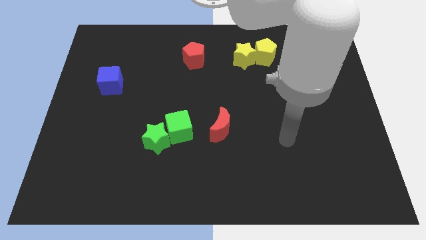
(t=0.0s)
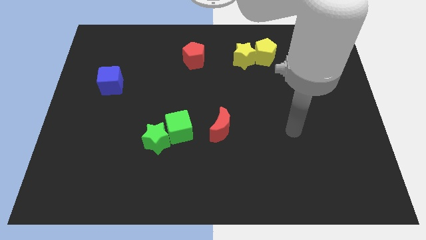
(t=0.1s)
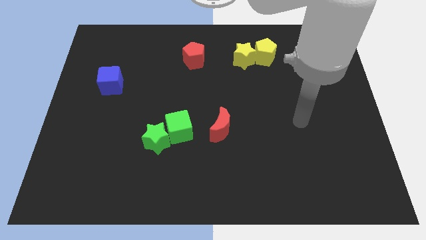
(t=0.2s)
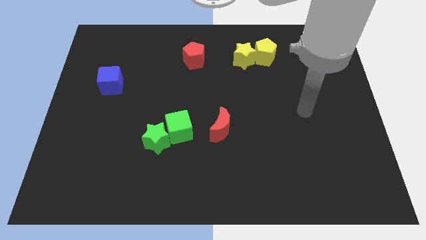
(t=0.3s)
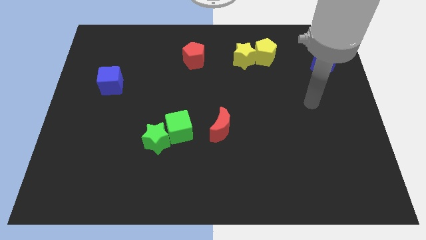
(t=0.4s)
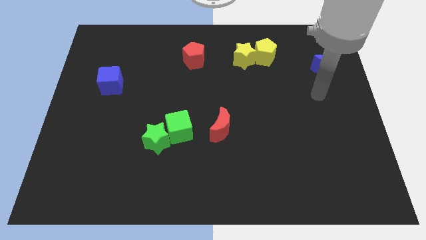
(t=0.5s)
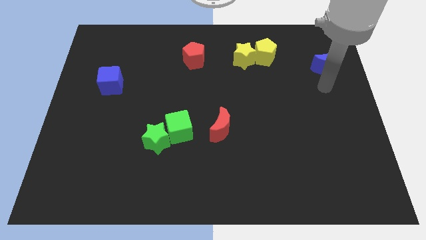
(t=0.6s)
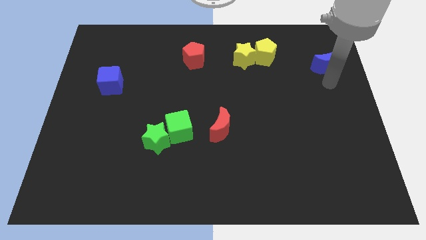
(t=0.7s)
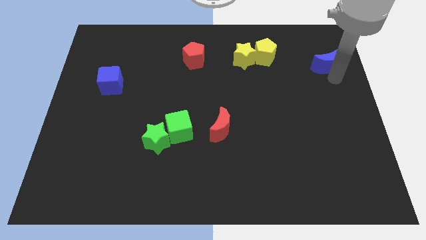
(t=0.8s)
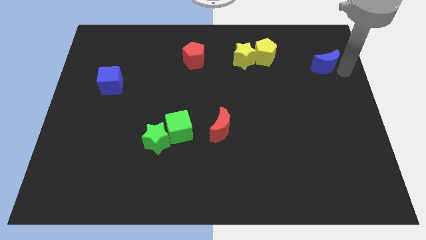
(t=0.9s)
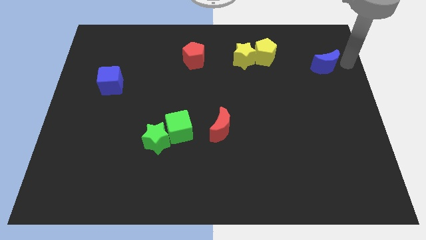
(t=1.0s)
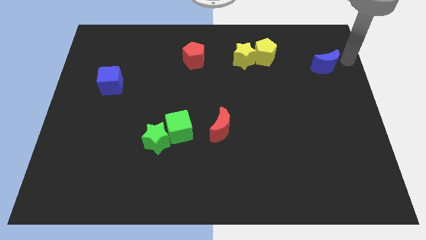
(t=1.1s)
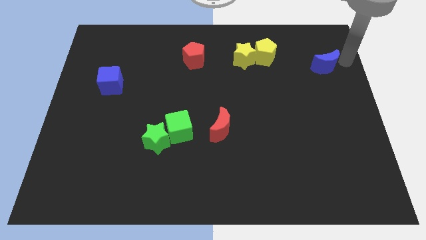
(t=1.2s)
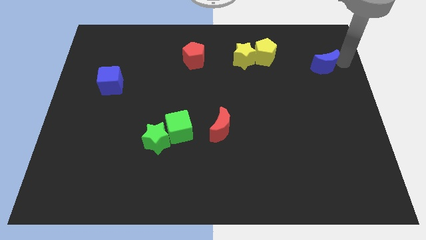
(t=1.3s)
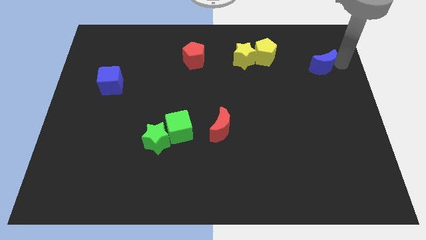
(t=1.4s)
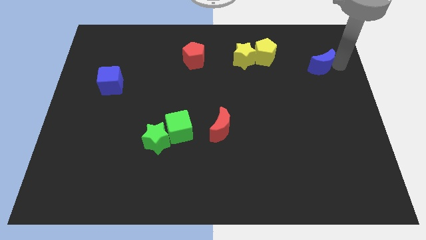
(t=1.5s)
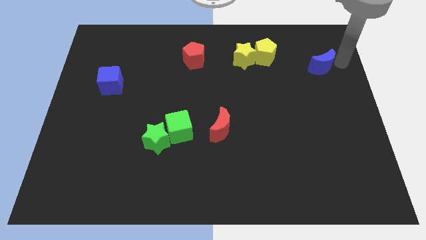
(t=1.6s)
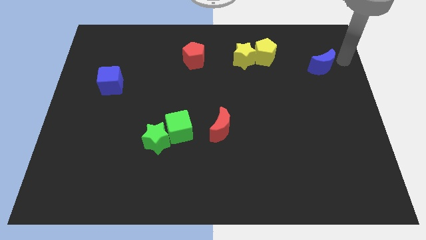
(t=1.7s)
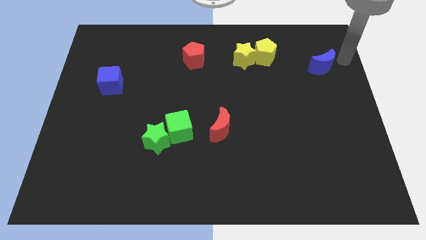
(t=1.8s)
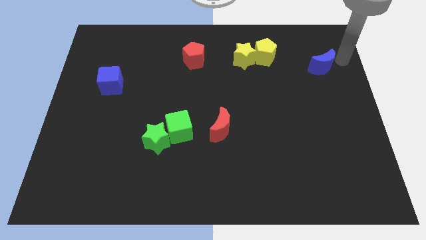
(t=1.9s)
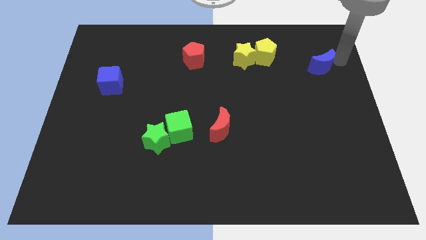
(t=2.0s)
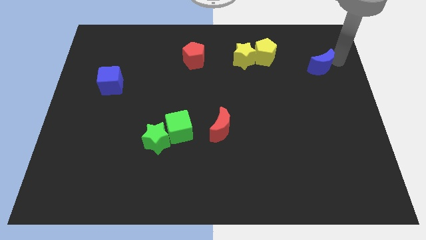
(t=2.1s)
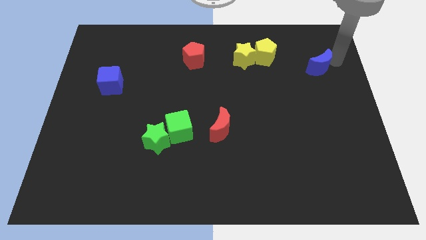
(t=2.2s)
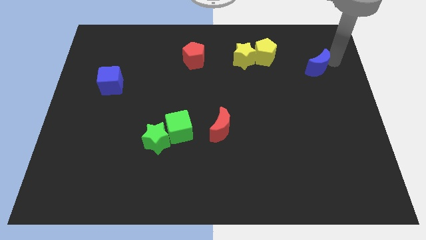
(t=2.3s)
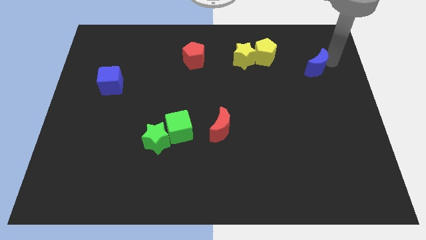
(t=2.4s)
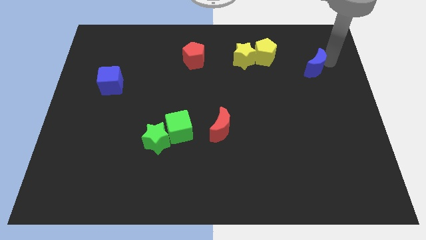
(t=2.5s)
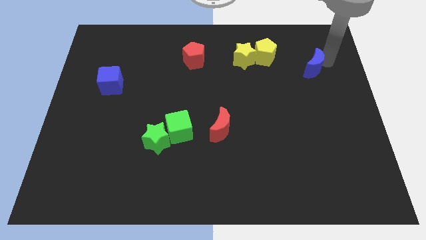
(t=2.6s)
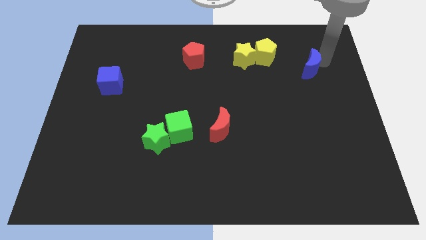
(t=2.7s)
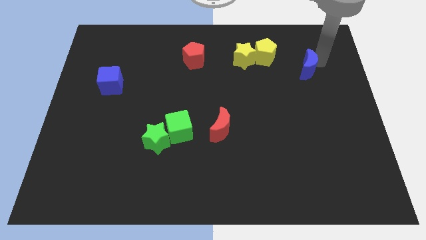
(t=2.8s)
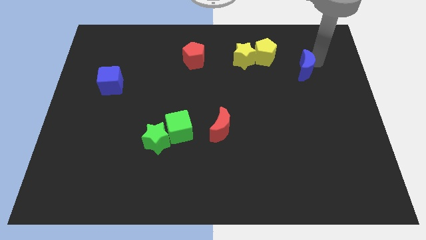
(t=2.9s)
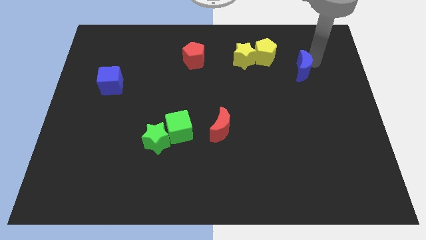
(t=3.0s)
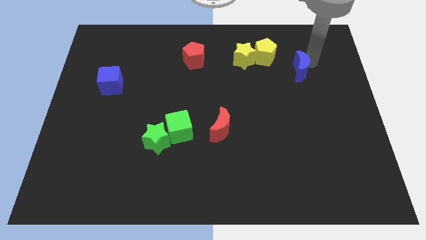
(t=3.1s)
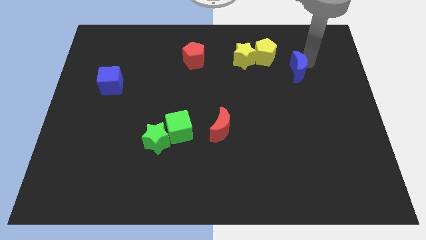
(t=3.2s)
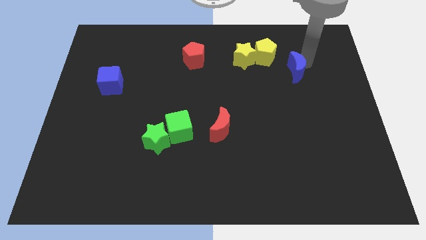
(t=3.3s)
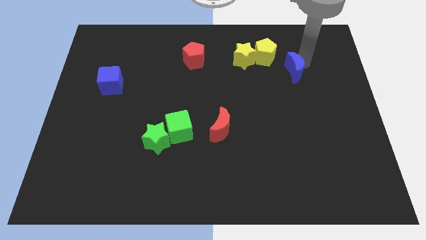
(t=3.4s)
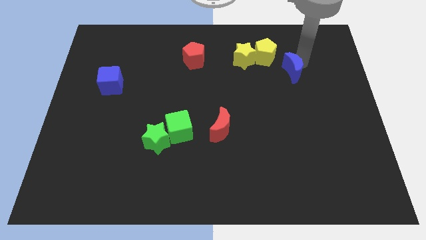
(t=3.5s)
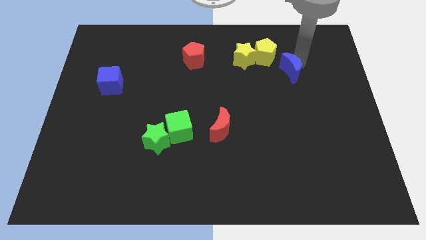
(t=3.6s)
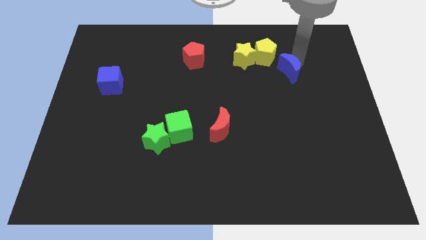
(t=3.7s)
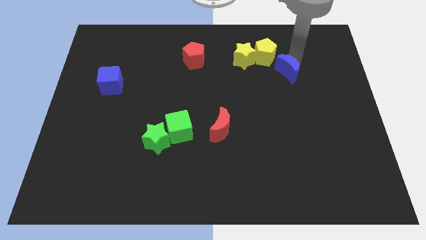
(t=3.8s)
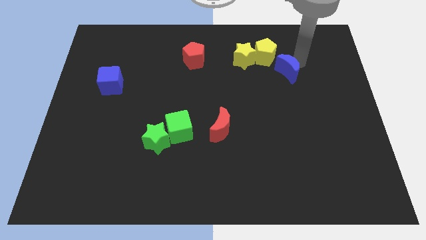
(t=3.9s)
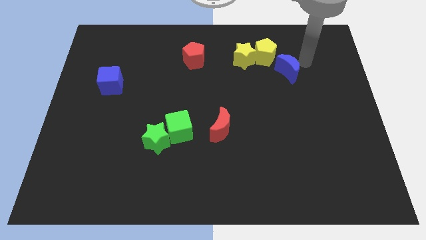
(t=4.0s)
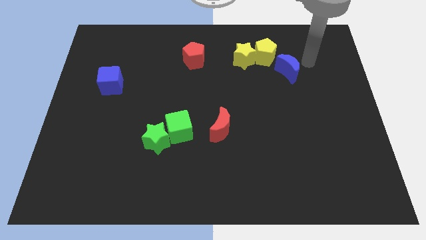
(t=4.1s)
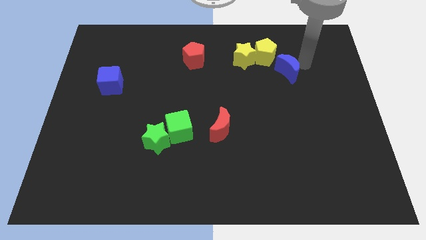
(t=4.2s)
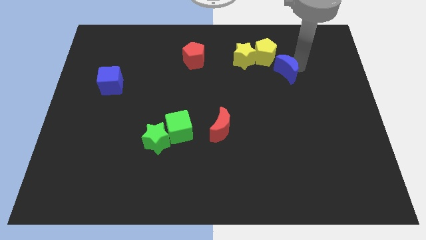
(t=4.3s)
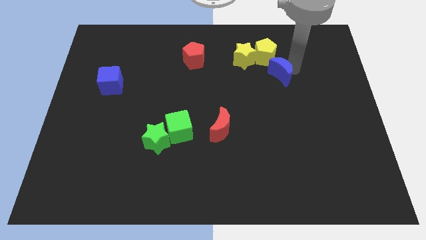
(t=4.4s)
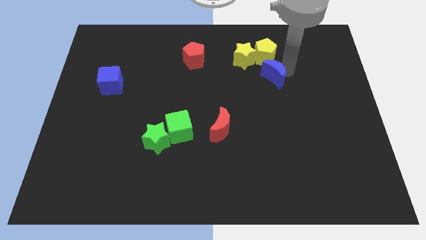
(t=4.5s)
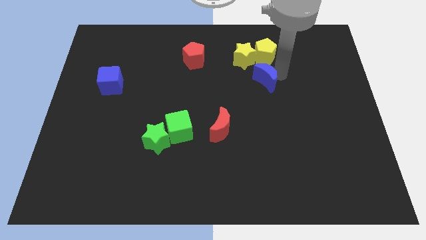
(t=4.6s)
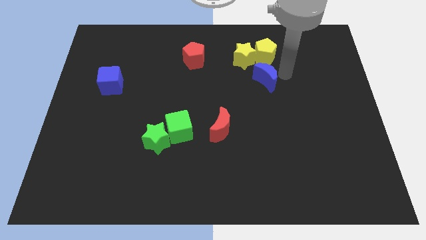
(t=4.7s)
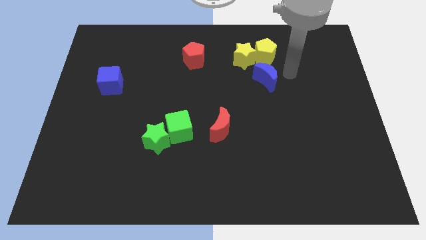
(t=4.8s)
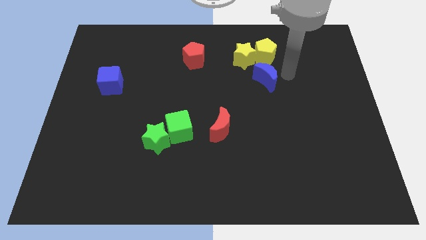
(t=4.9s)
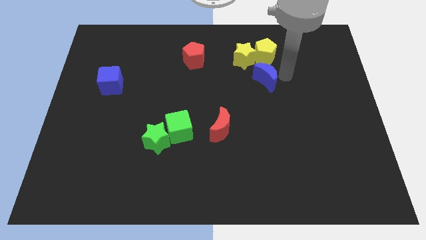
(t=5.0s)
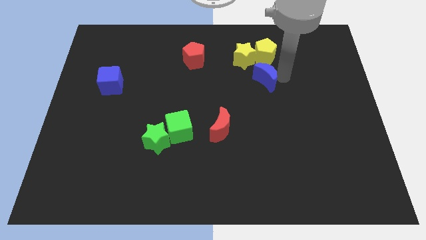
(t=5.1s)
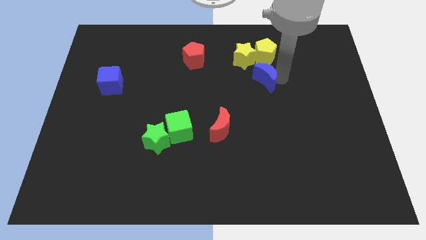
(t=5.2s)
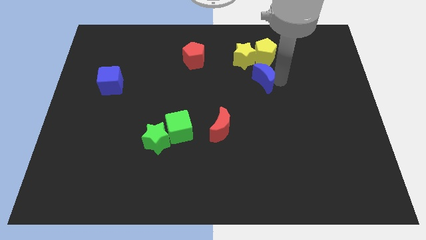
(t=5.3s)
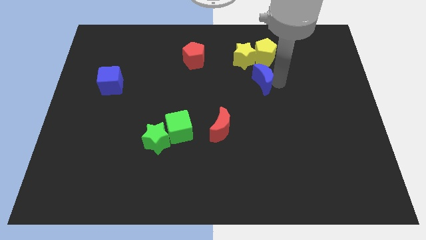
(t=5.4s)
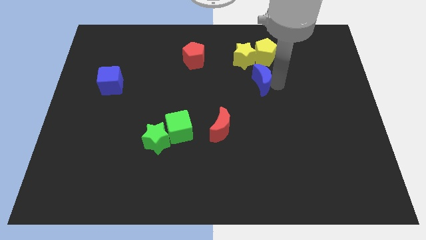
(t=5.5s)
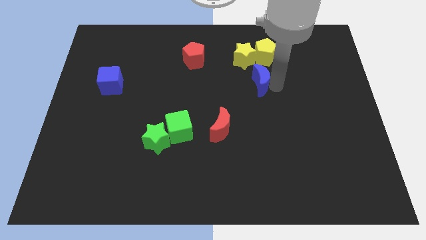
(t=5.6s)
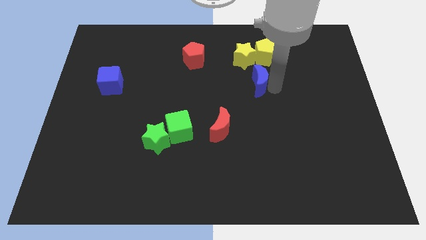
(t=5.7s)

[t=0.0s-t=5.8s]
slide the blue moon to the middle of the board
